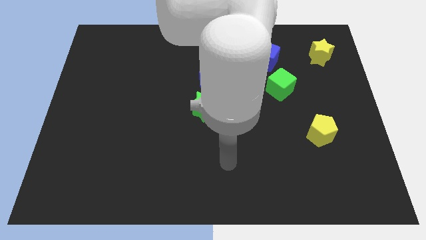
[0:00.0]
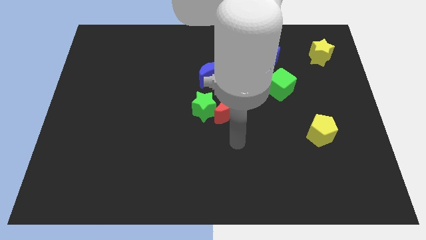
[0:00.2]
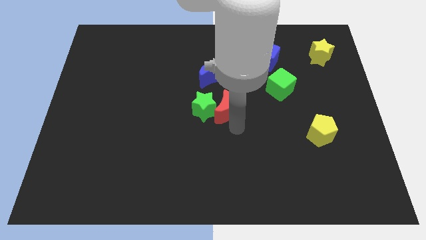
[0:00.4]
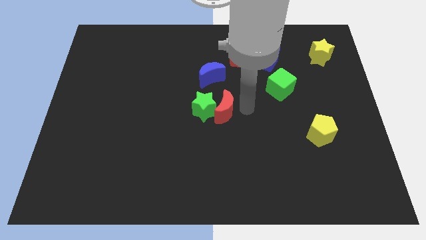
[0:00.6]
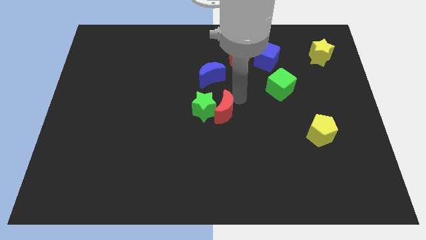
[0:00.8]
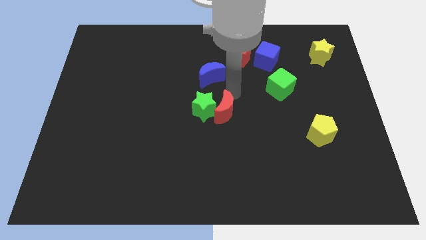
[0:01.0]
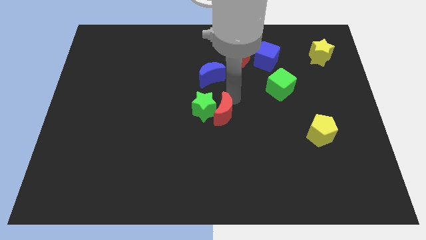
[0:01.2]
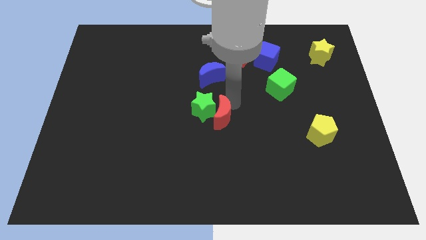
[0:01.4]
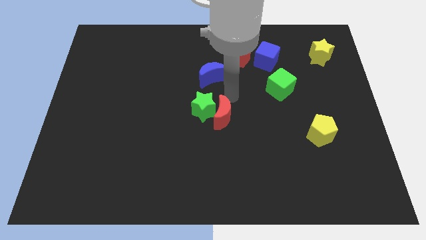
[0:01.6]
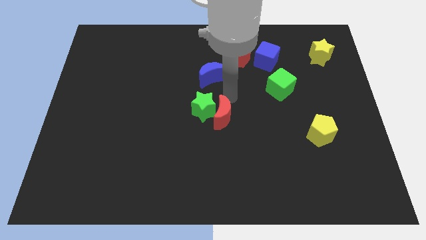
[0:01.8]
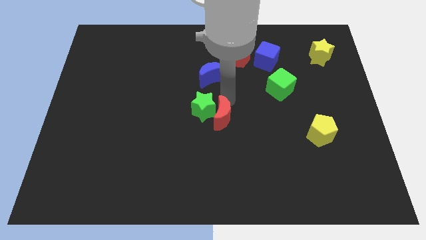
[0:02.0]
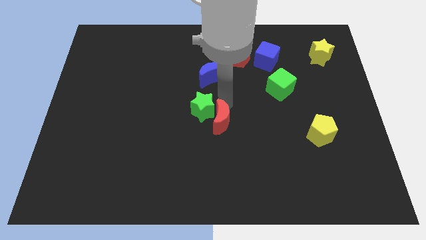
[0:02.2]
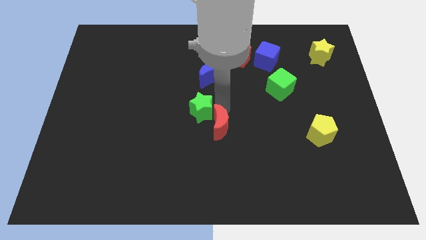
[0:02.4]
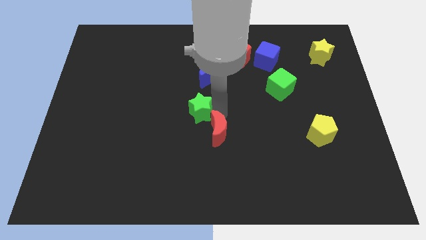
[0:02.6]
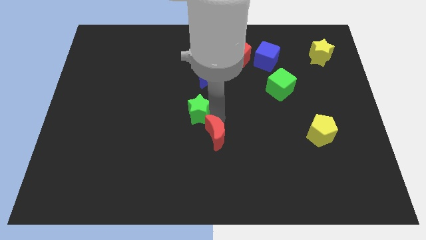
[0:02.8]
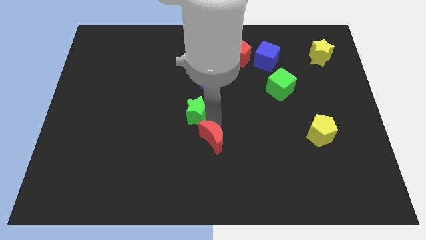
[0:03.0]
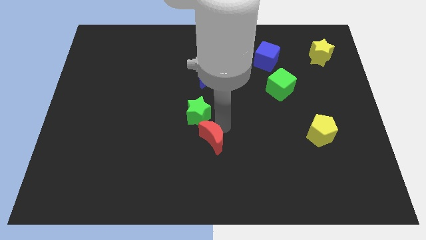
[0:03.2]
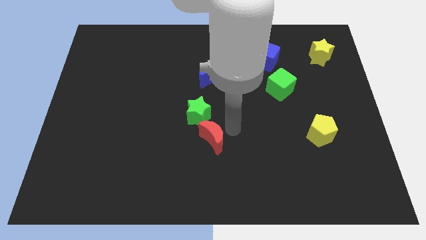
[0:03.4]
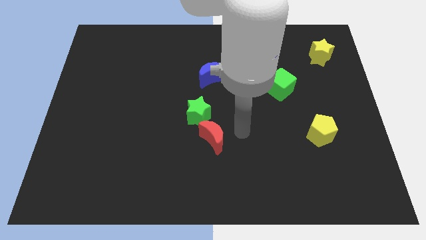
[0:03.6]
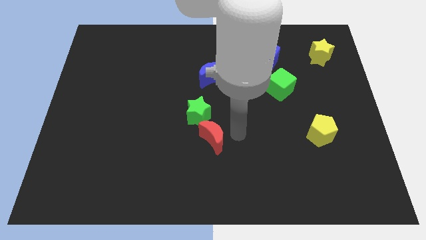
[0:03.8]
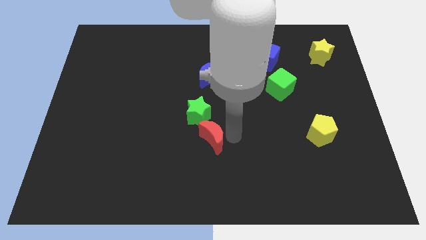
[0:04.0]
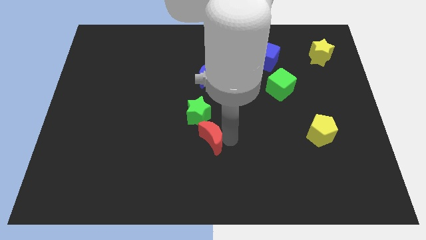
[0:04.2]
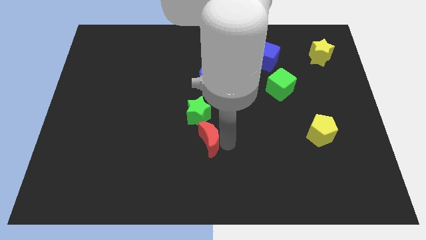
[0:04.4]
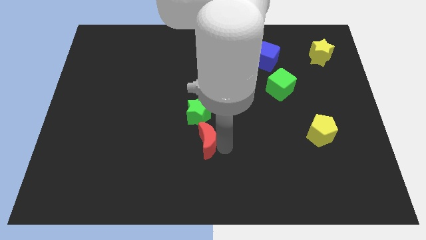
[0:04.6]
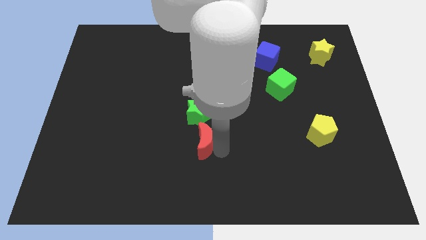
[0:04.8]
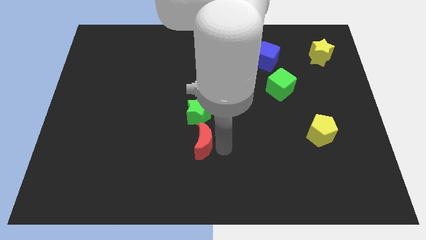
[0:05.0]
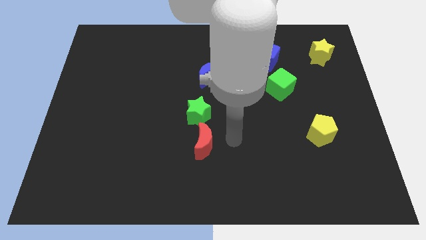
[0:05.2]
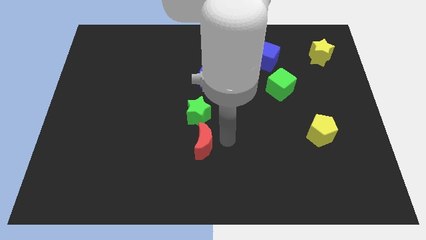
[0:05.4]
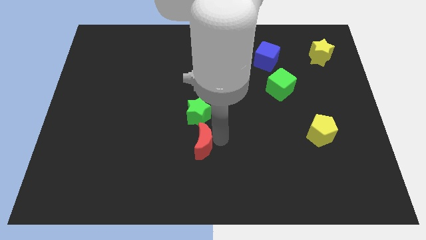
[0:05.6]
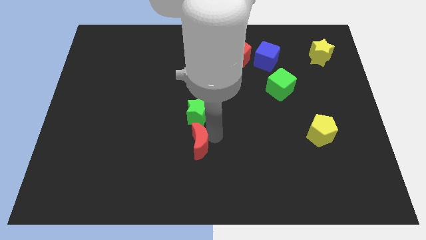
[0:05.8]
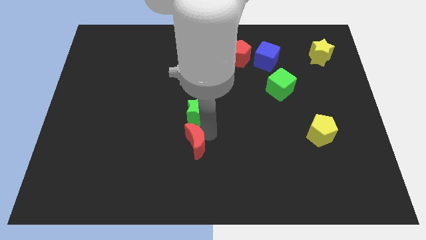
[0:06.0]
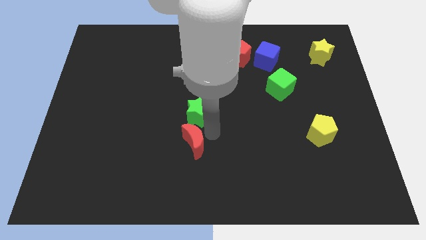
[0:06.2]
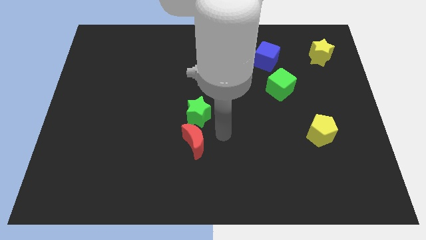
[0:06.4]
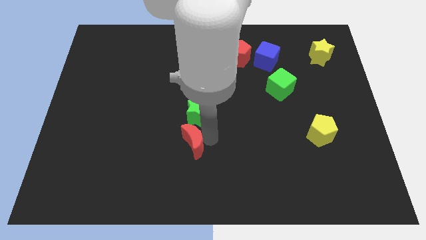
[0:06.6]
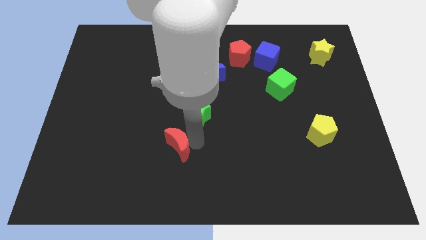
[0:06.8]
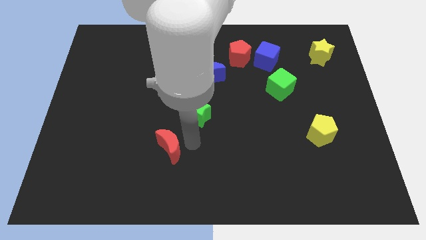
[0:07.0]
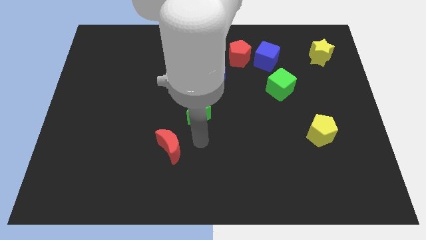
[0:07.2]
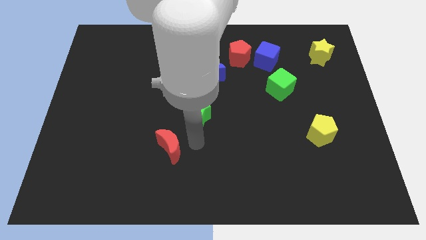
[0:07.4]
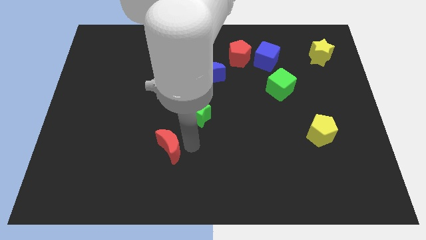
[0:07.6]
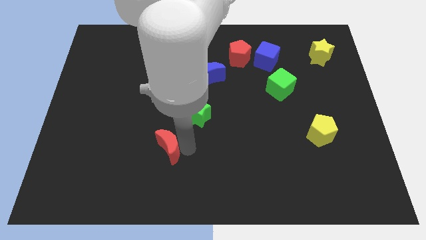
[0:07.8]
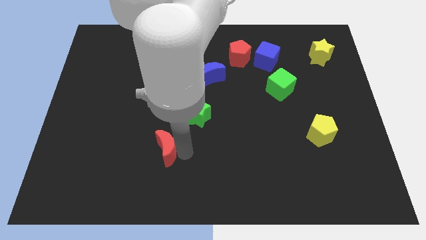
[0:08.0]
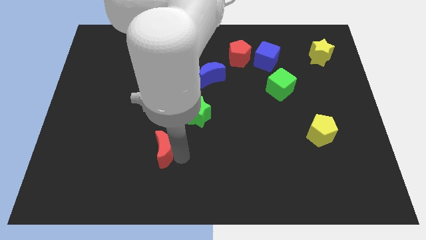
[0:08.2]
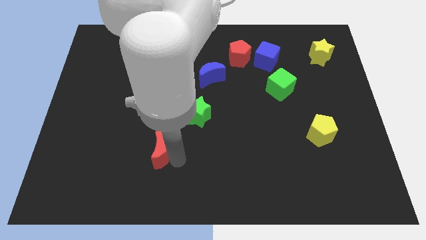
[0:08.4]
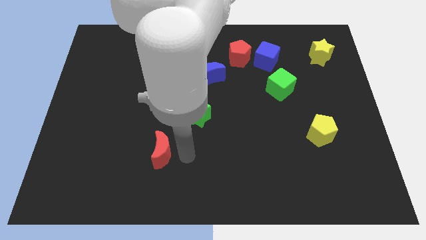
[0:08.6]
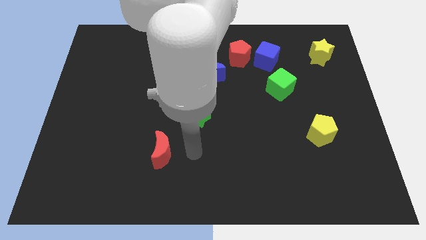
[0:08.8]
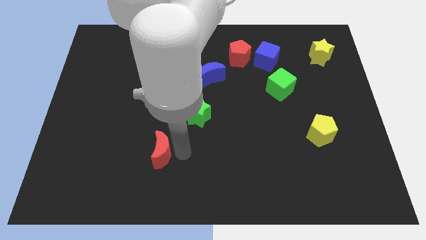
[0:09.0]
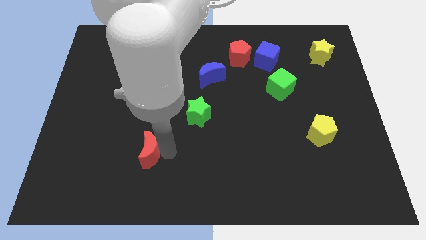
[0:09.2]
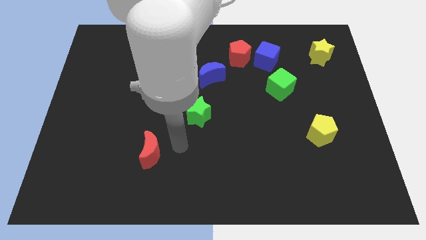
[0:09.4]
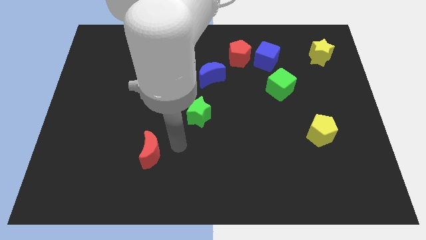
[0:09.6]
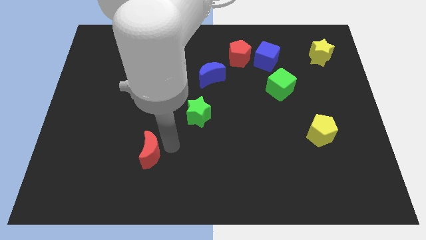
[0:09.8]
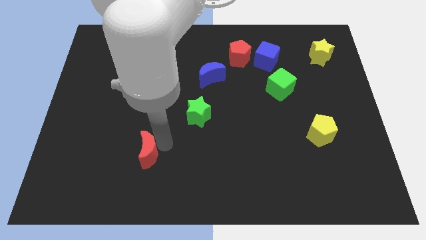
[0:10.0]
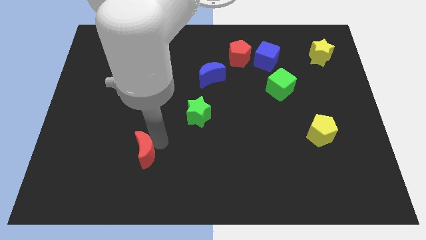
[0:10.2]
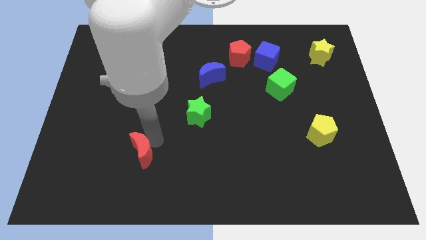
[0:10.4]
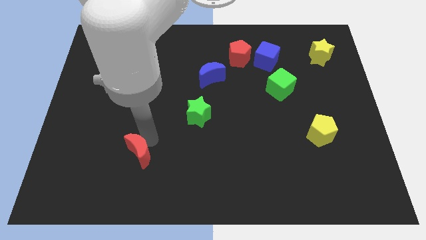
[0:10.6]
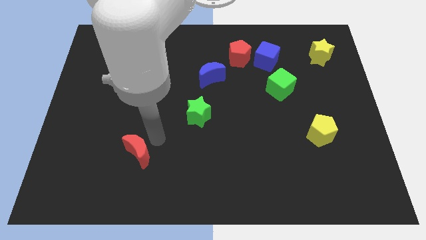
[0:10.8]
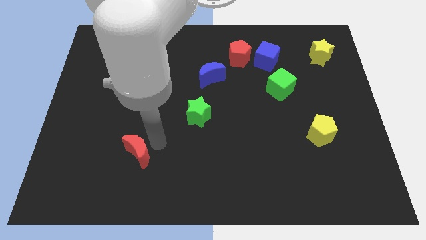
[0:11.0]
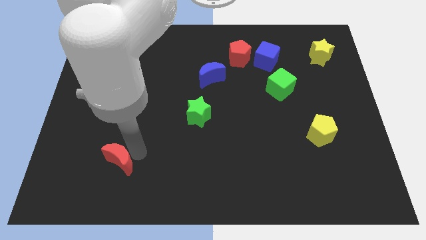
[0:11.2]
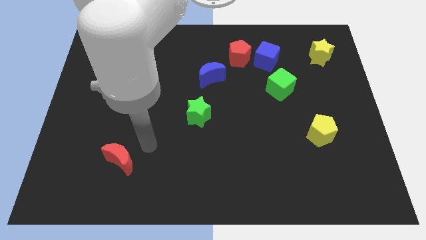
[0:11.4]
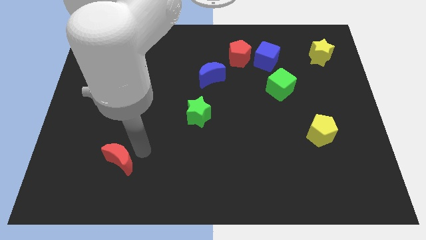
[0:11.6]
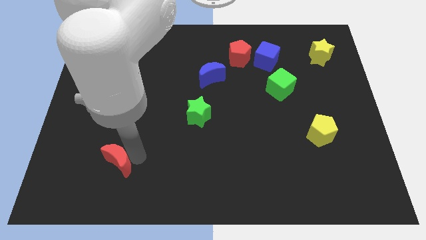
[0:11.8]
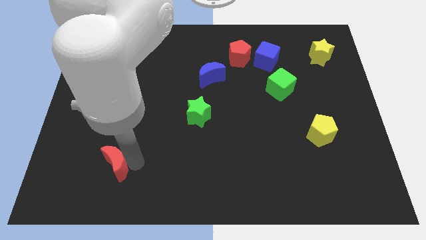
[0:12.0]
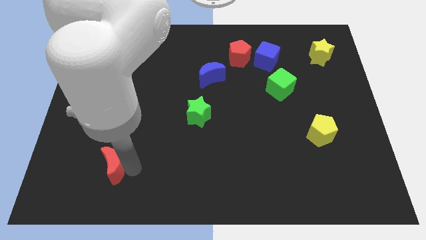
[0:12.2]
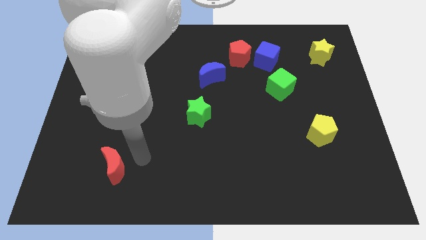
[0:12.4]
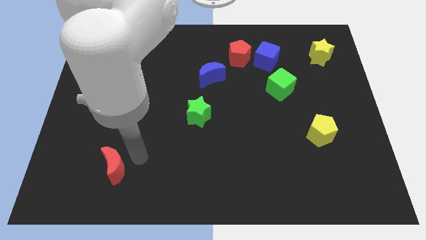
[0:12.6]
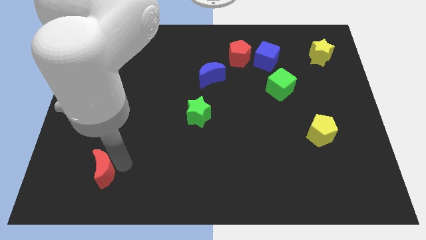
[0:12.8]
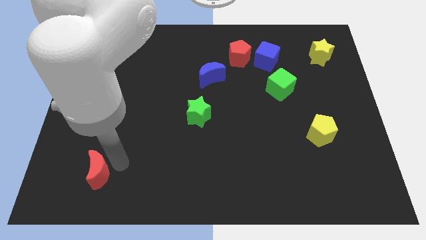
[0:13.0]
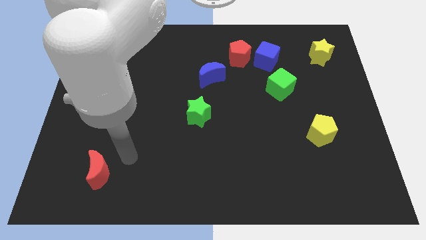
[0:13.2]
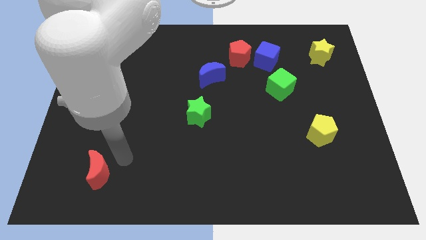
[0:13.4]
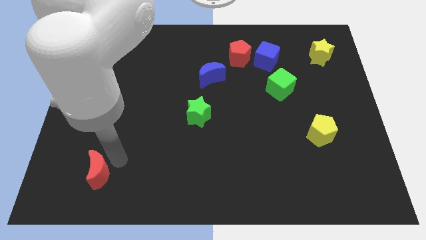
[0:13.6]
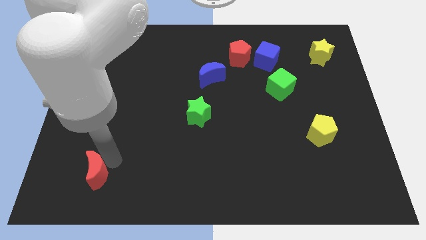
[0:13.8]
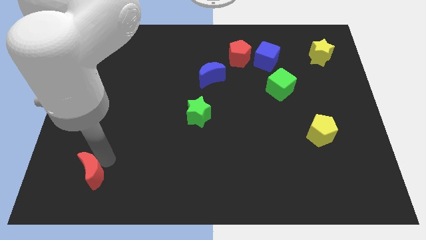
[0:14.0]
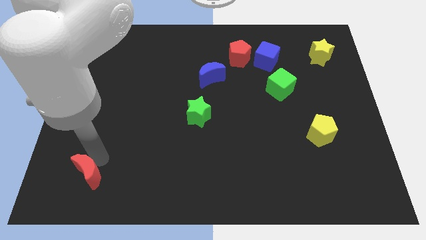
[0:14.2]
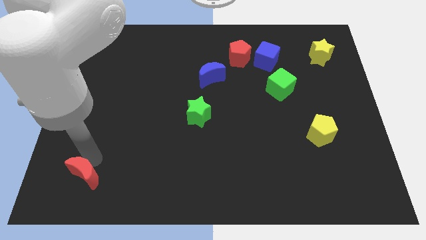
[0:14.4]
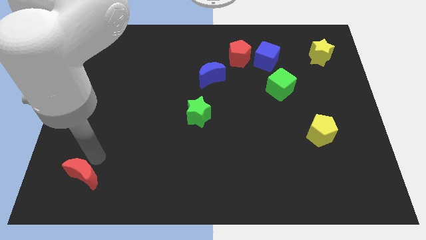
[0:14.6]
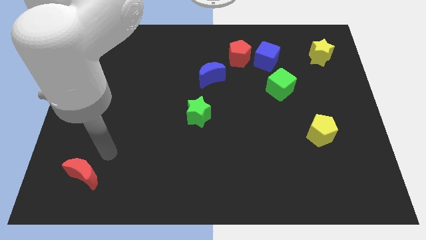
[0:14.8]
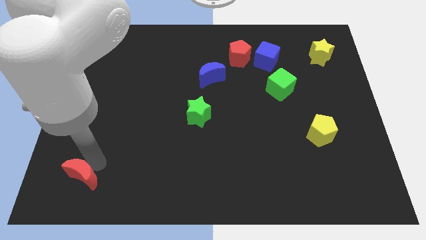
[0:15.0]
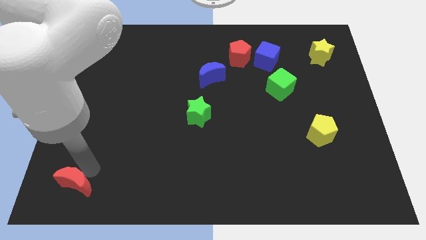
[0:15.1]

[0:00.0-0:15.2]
push the red moon to the bottom left corner
